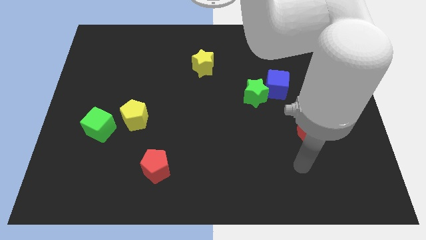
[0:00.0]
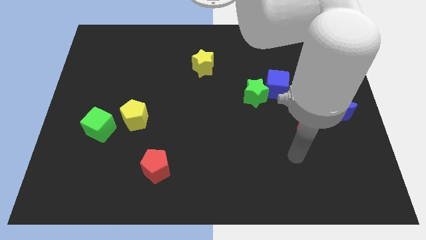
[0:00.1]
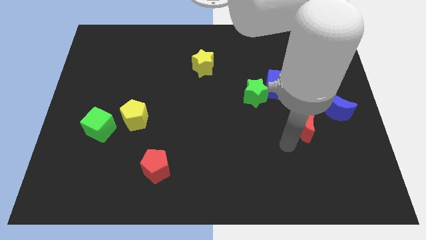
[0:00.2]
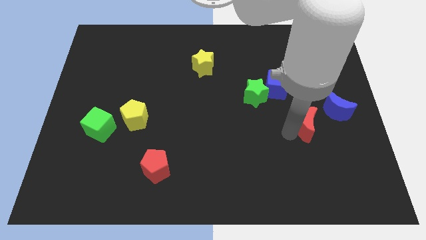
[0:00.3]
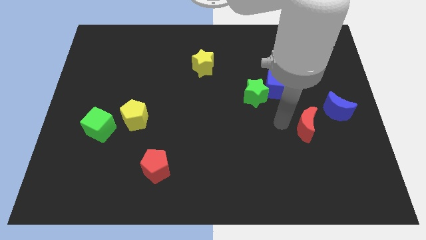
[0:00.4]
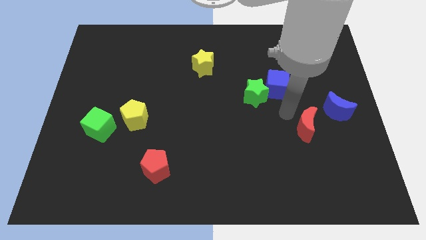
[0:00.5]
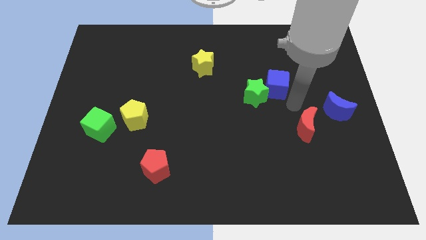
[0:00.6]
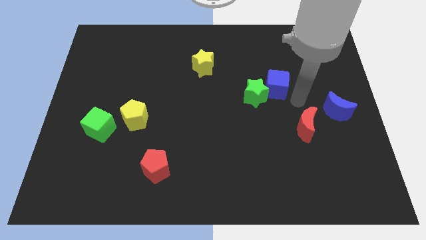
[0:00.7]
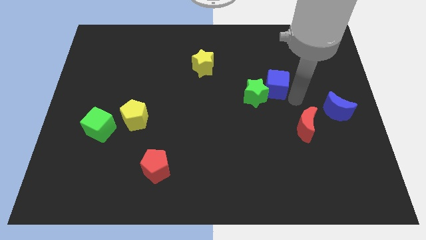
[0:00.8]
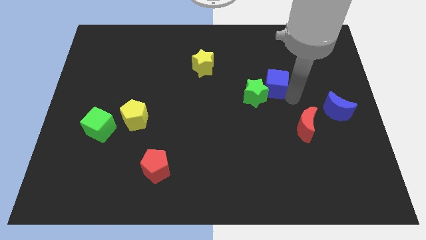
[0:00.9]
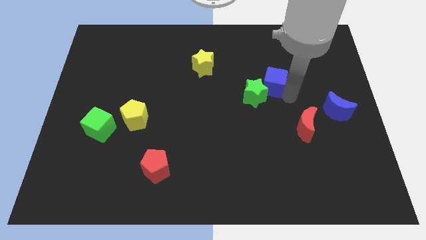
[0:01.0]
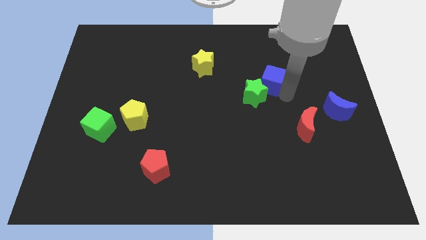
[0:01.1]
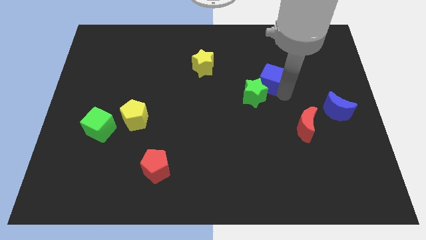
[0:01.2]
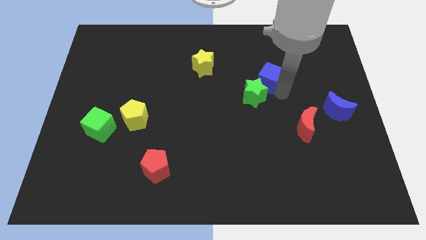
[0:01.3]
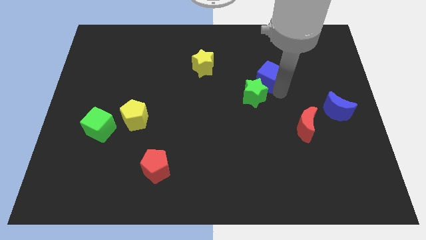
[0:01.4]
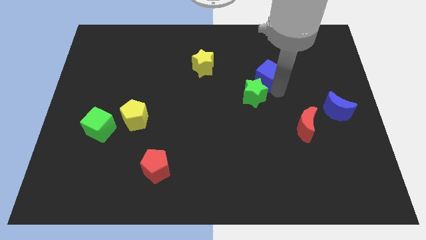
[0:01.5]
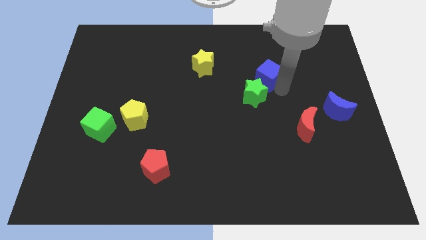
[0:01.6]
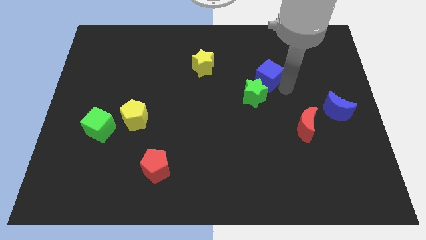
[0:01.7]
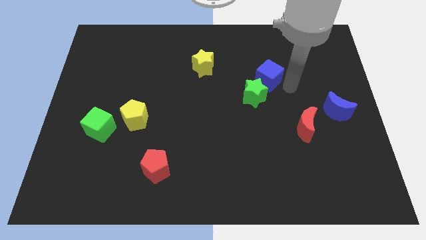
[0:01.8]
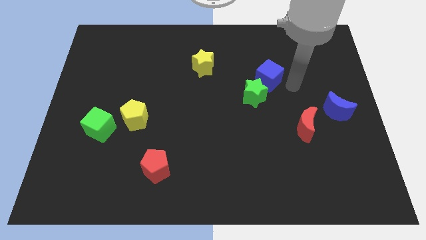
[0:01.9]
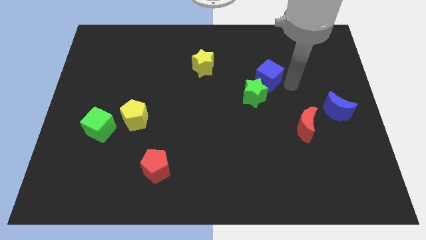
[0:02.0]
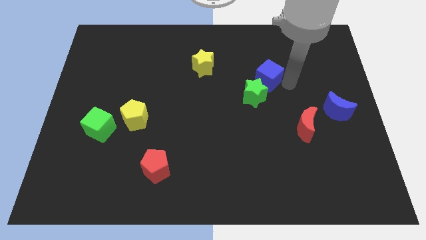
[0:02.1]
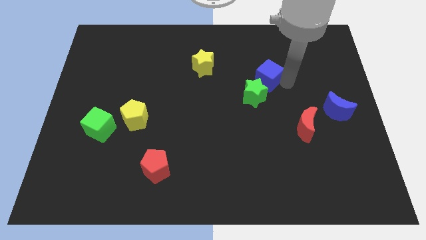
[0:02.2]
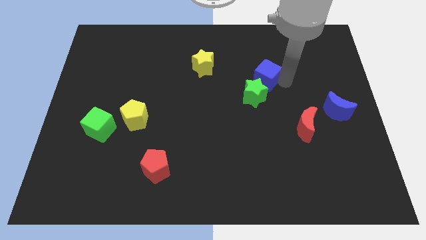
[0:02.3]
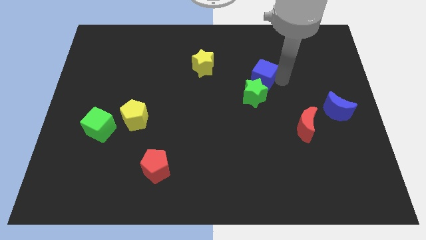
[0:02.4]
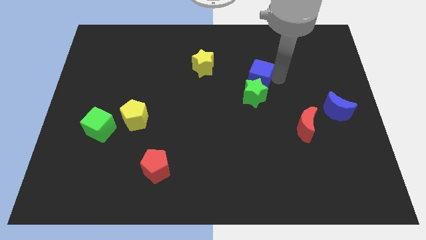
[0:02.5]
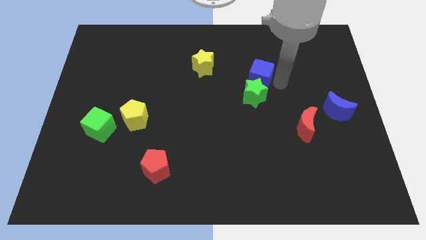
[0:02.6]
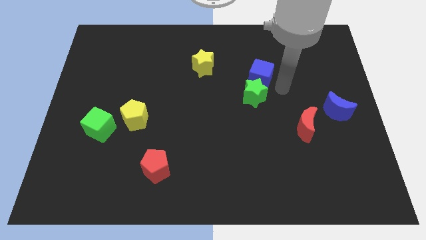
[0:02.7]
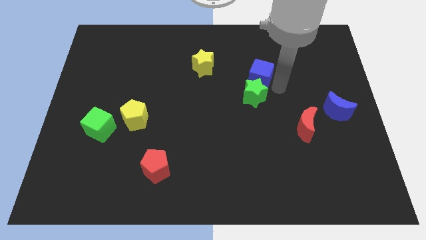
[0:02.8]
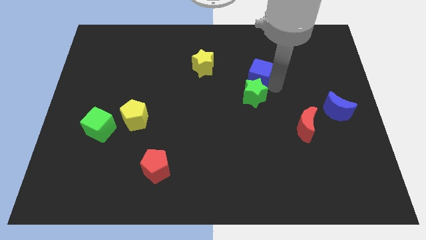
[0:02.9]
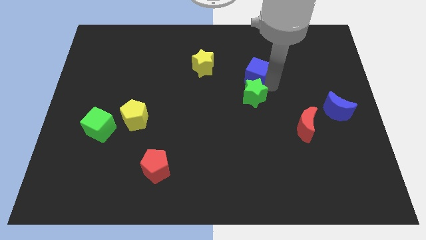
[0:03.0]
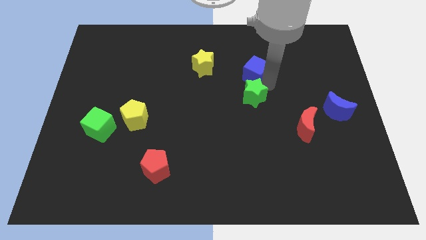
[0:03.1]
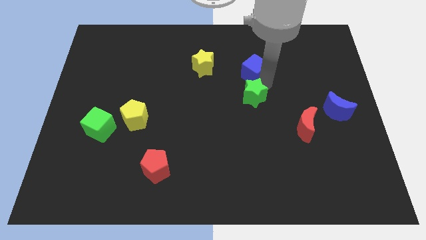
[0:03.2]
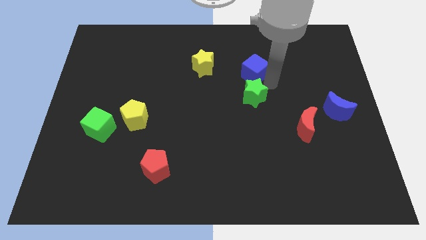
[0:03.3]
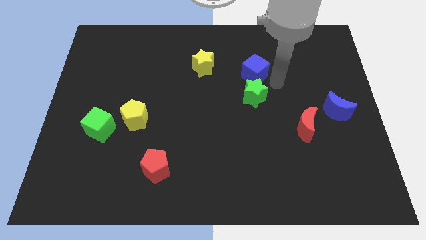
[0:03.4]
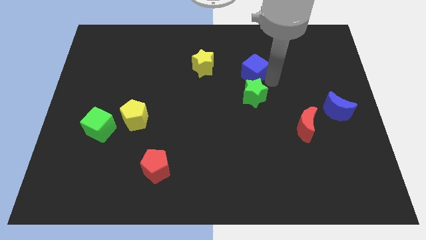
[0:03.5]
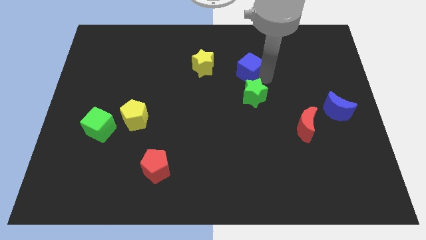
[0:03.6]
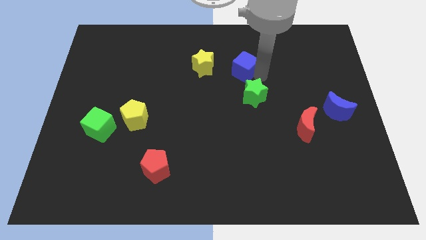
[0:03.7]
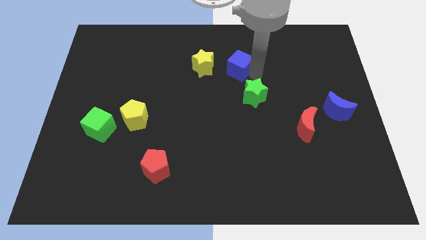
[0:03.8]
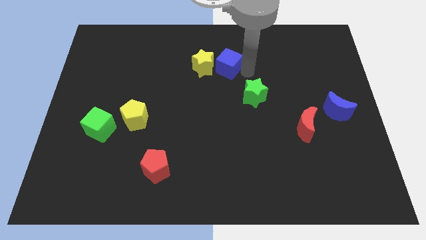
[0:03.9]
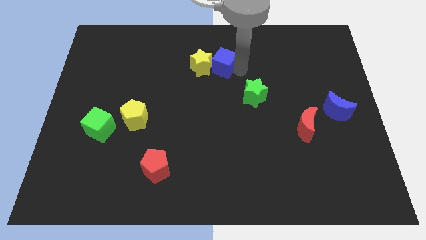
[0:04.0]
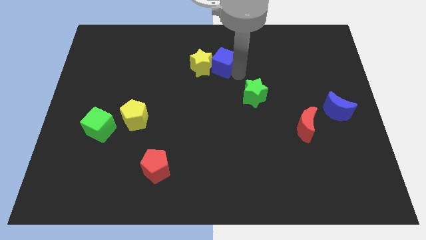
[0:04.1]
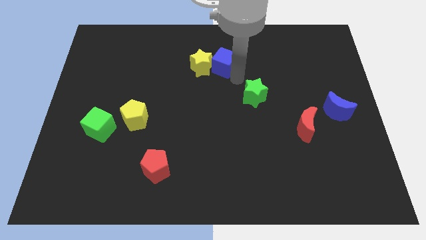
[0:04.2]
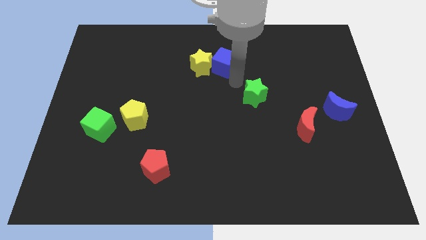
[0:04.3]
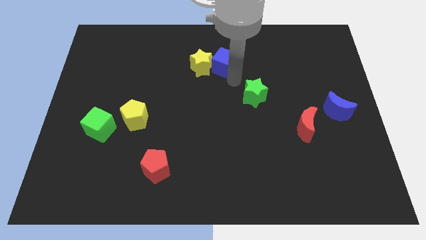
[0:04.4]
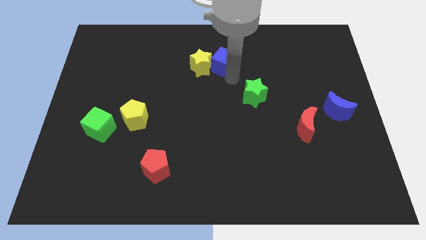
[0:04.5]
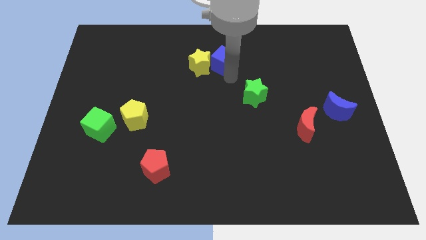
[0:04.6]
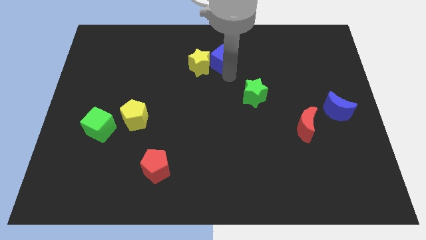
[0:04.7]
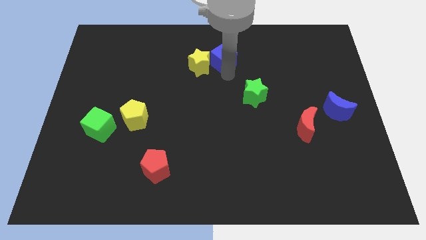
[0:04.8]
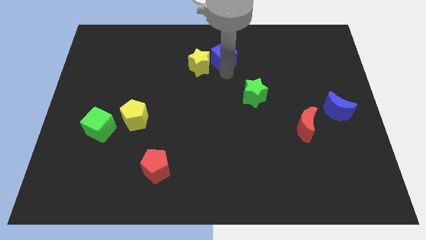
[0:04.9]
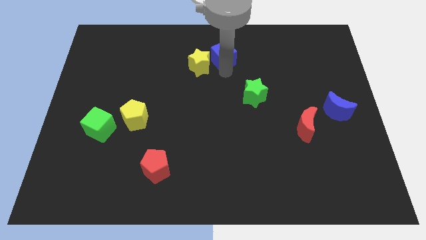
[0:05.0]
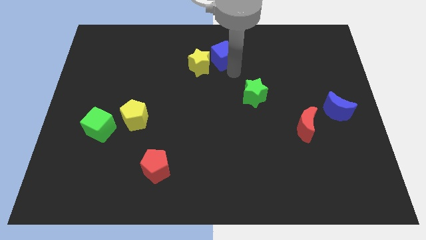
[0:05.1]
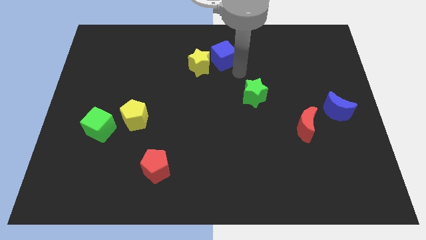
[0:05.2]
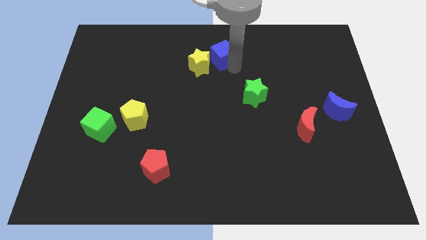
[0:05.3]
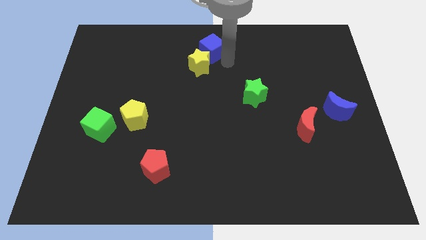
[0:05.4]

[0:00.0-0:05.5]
move the blue cube to the top
